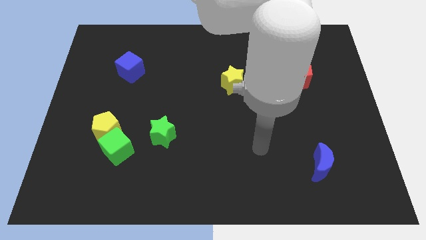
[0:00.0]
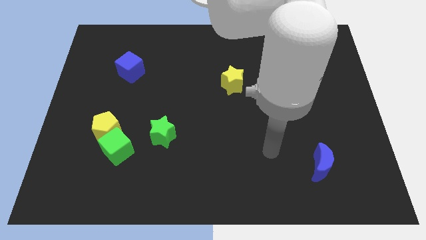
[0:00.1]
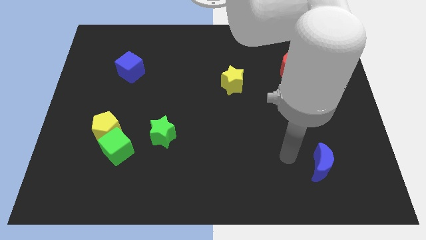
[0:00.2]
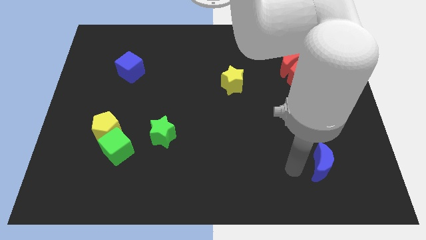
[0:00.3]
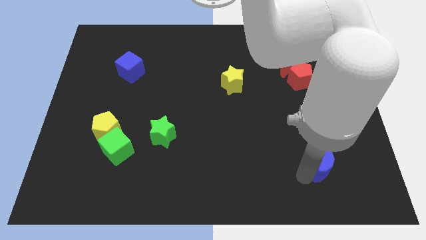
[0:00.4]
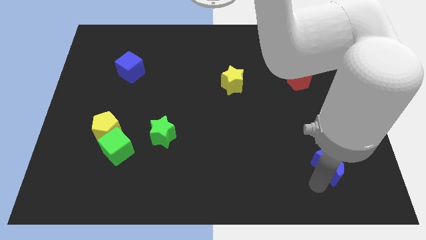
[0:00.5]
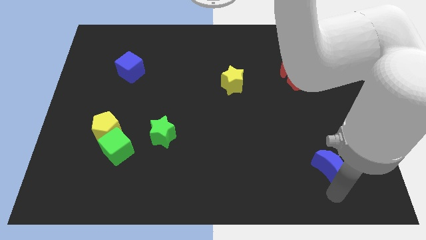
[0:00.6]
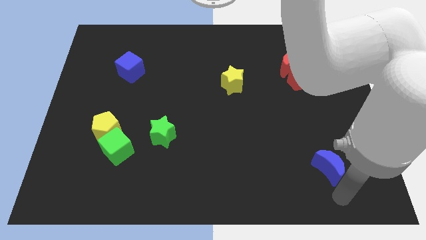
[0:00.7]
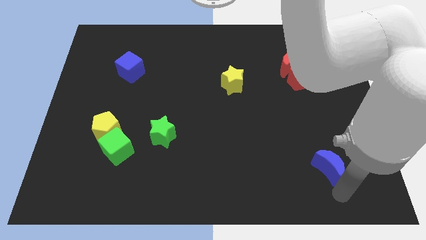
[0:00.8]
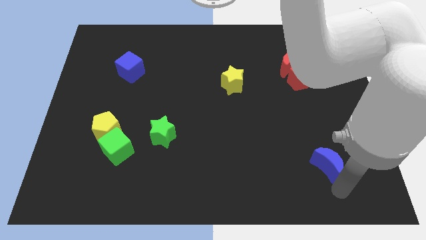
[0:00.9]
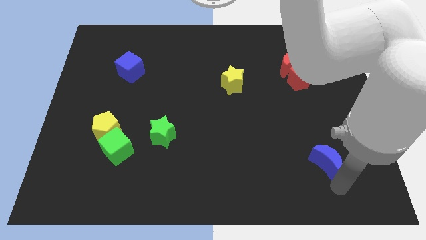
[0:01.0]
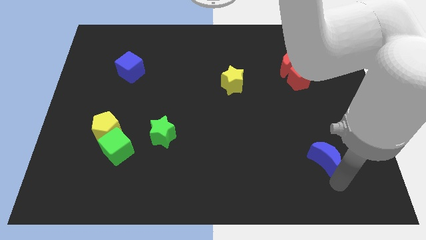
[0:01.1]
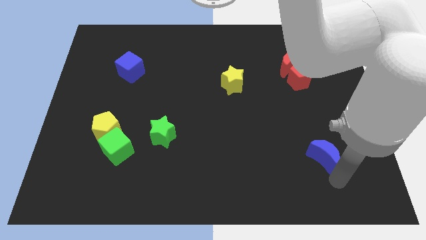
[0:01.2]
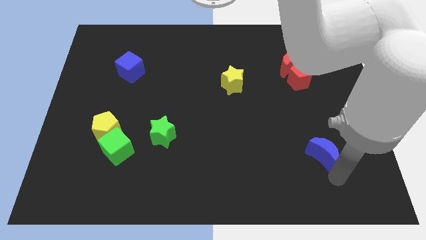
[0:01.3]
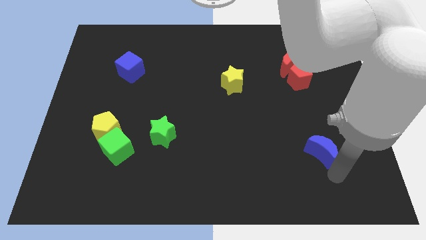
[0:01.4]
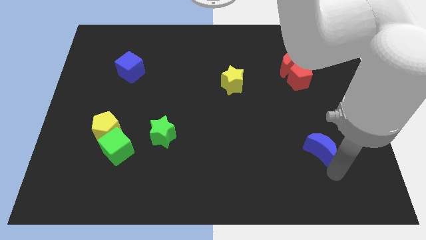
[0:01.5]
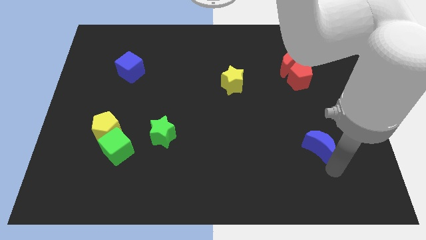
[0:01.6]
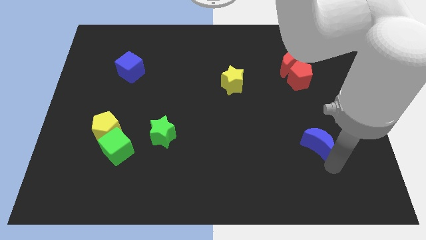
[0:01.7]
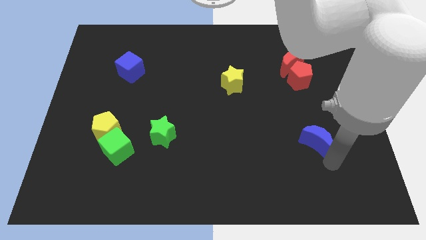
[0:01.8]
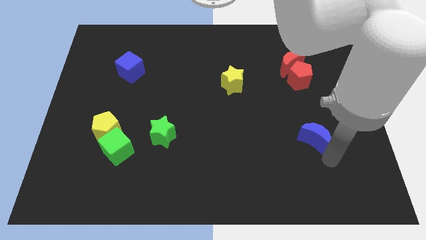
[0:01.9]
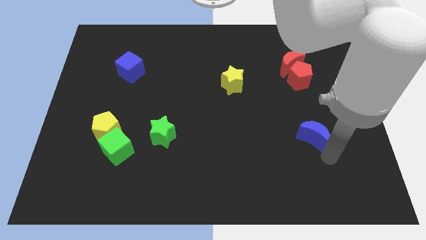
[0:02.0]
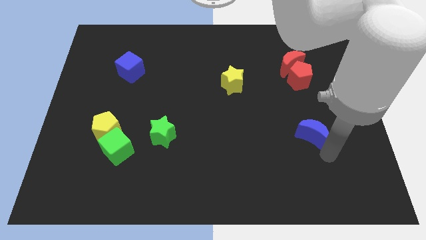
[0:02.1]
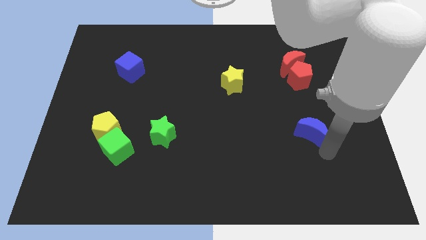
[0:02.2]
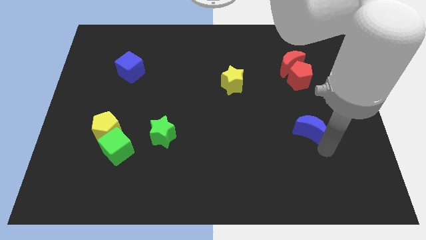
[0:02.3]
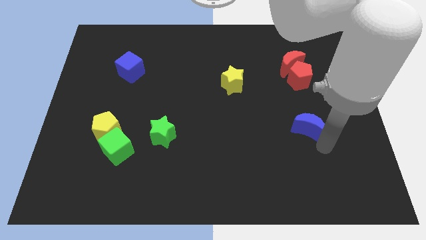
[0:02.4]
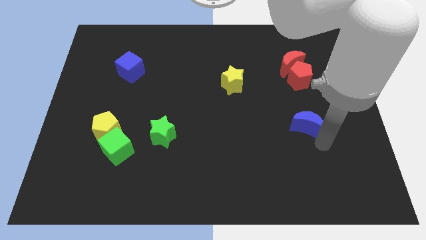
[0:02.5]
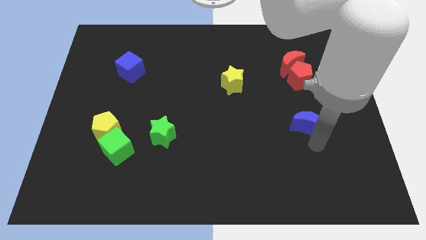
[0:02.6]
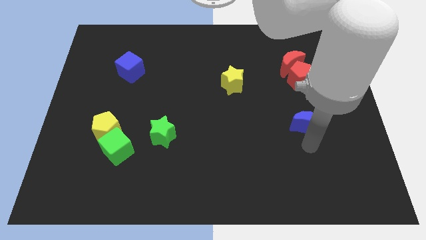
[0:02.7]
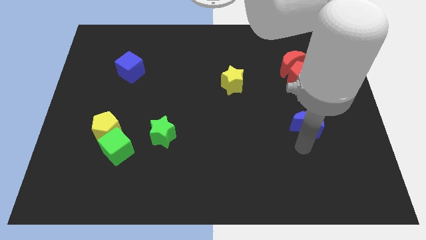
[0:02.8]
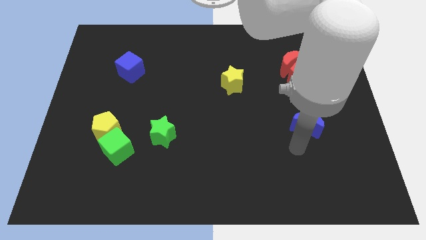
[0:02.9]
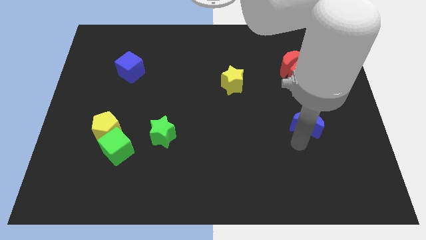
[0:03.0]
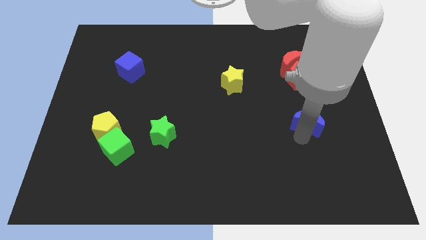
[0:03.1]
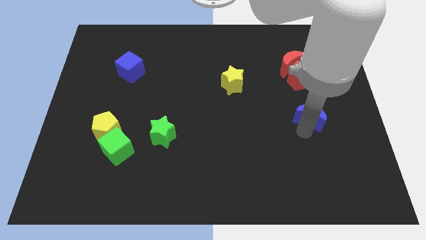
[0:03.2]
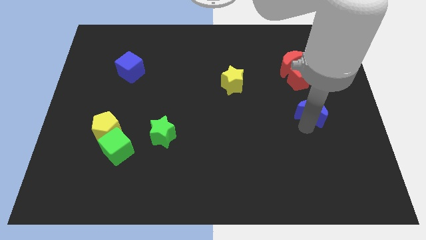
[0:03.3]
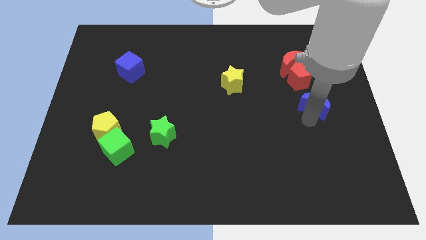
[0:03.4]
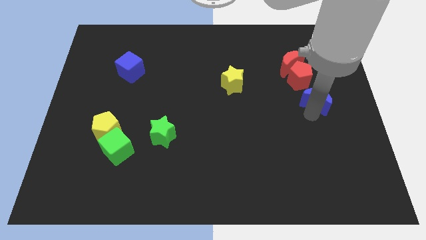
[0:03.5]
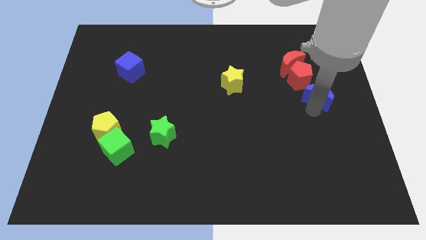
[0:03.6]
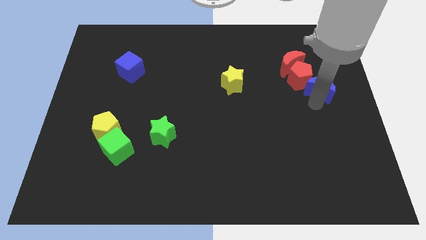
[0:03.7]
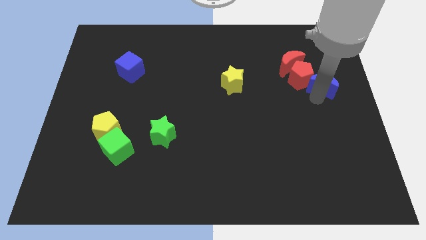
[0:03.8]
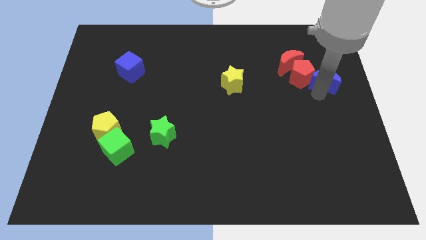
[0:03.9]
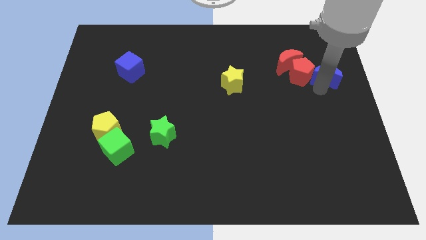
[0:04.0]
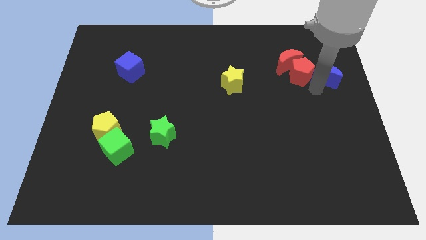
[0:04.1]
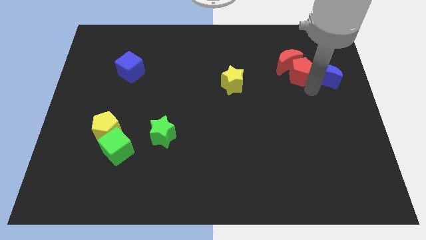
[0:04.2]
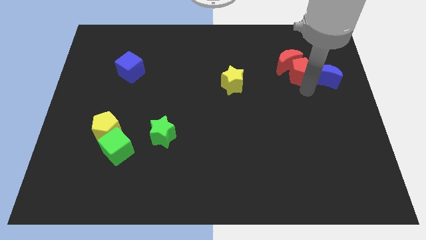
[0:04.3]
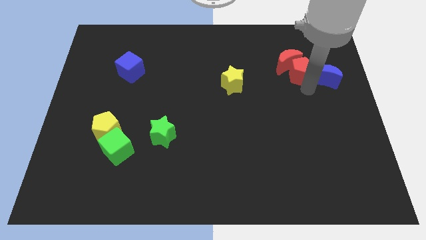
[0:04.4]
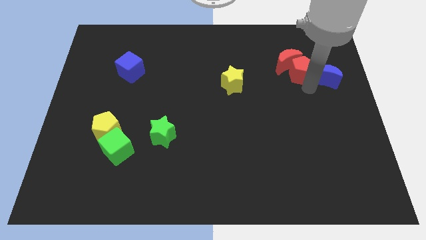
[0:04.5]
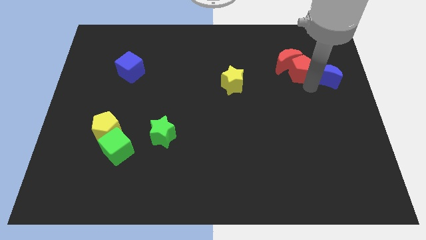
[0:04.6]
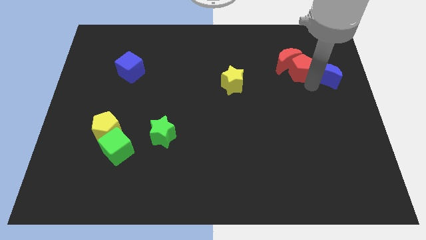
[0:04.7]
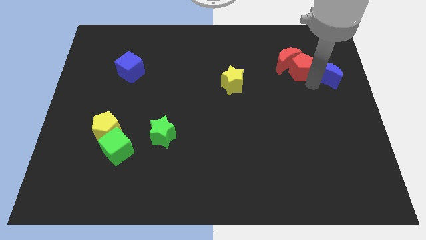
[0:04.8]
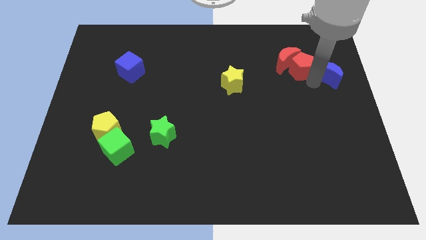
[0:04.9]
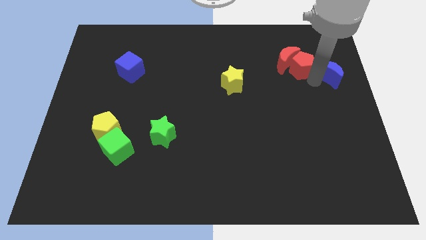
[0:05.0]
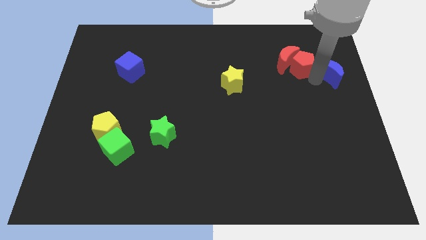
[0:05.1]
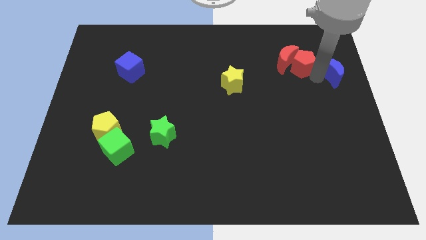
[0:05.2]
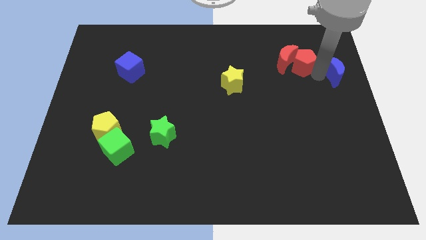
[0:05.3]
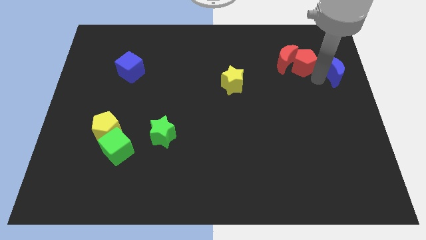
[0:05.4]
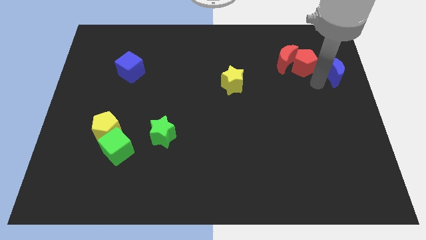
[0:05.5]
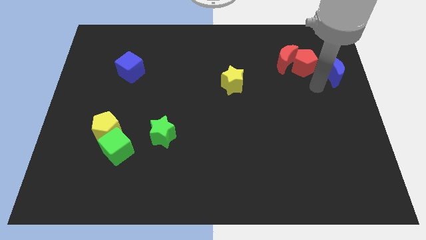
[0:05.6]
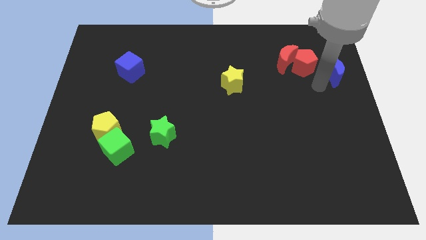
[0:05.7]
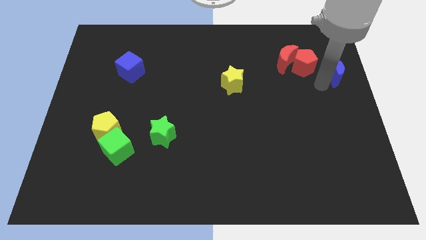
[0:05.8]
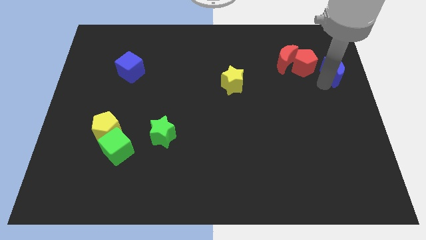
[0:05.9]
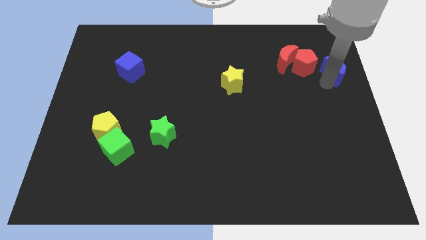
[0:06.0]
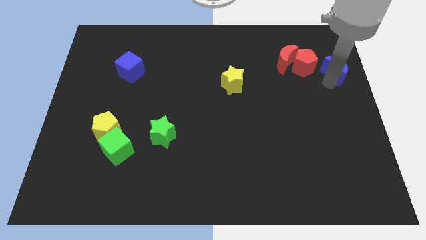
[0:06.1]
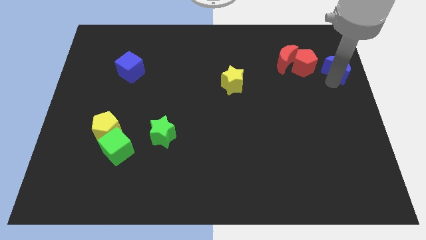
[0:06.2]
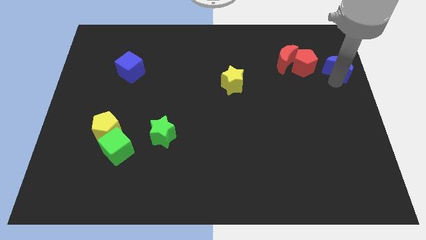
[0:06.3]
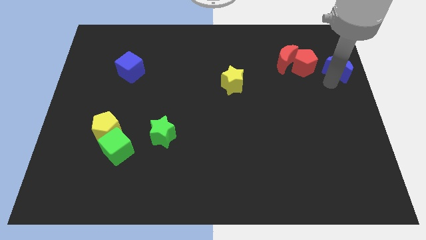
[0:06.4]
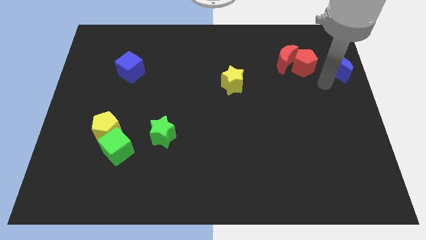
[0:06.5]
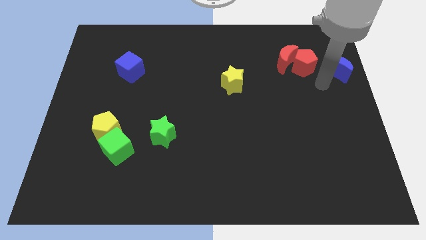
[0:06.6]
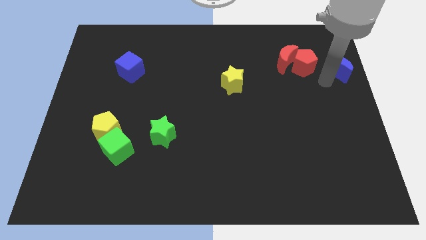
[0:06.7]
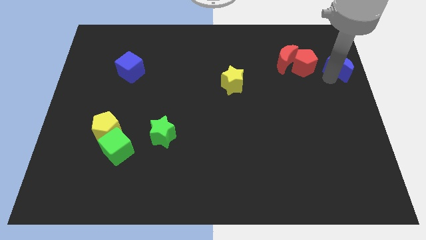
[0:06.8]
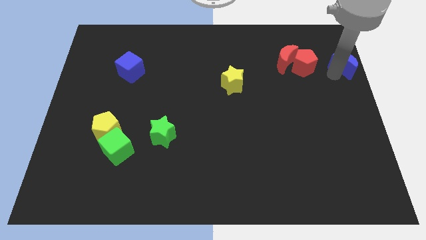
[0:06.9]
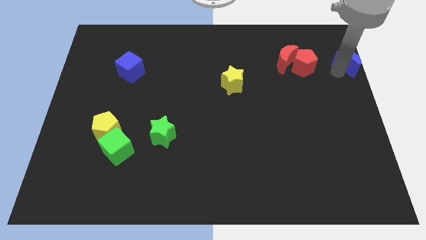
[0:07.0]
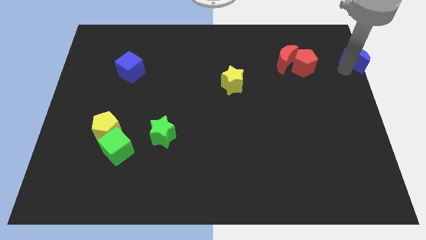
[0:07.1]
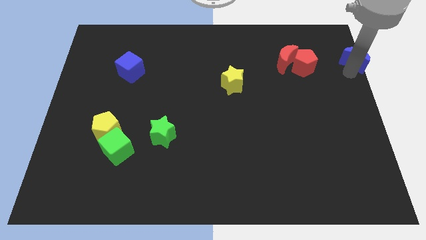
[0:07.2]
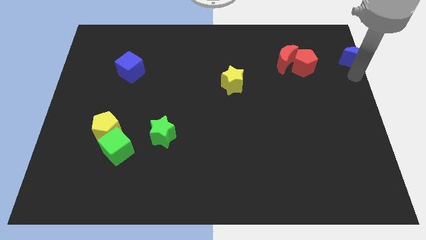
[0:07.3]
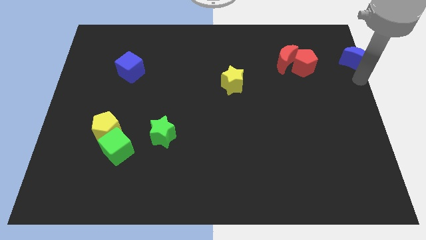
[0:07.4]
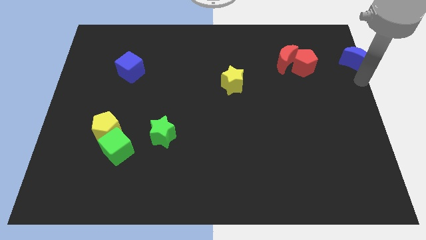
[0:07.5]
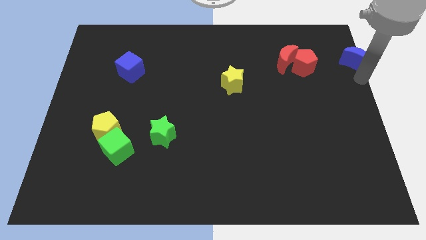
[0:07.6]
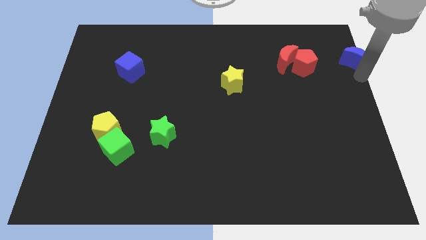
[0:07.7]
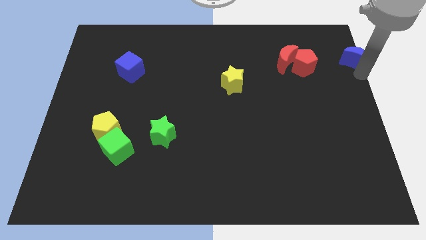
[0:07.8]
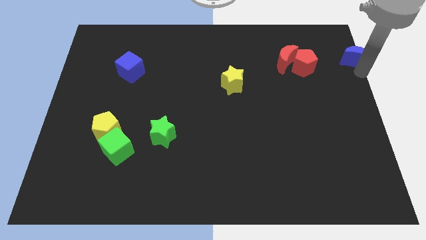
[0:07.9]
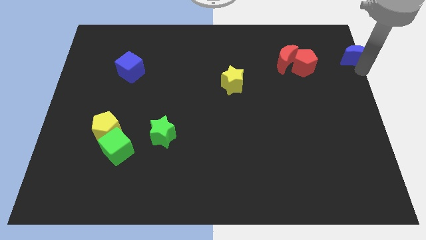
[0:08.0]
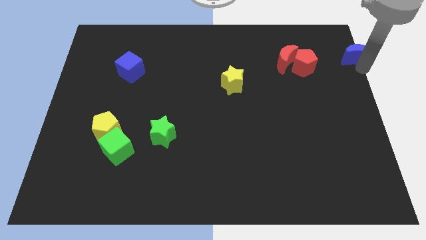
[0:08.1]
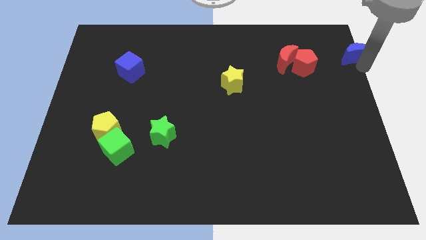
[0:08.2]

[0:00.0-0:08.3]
push the blue moon to the top right corner
